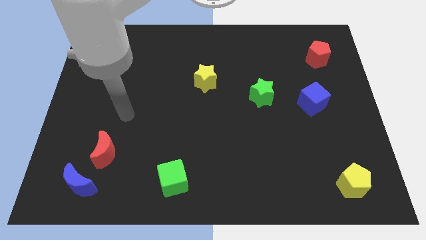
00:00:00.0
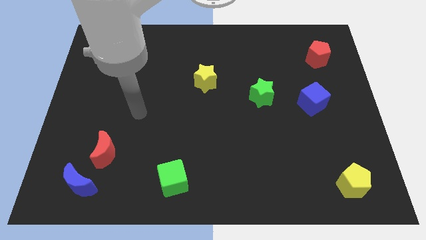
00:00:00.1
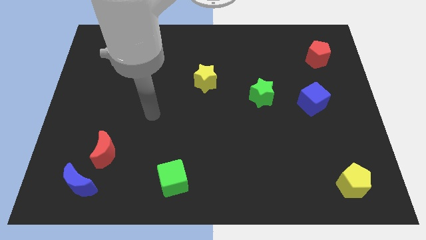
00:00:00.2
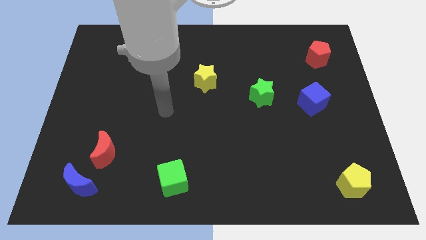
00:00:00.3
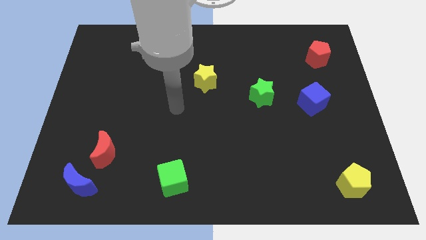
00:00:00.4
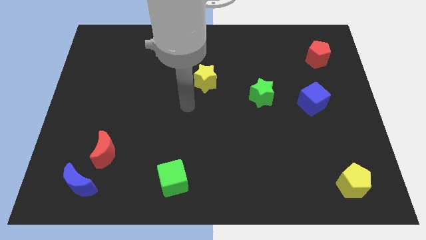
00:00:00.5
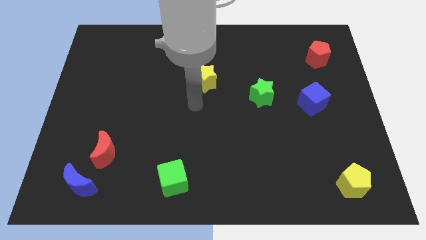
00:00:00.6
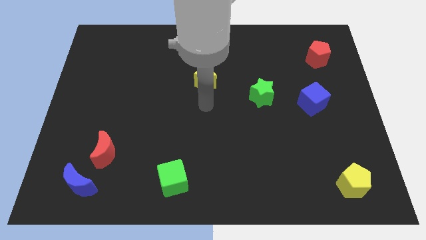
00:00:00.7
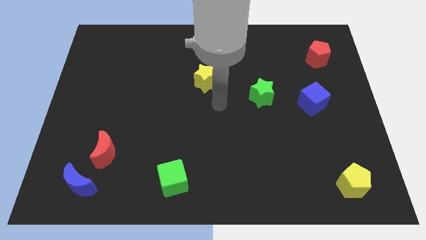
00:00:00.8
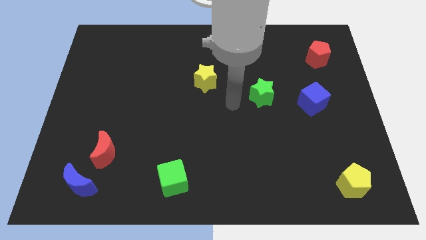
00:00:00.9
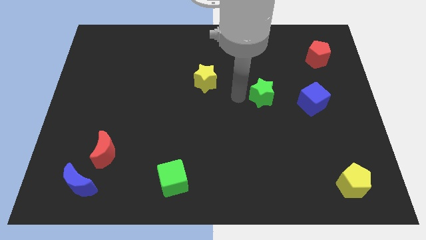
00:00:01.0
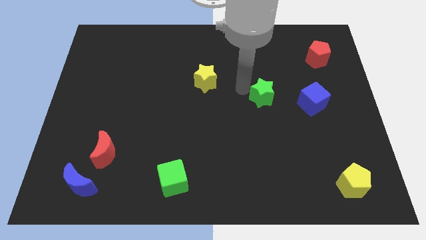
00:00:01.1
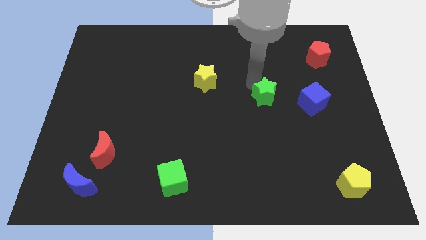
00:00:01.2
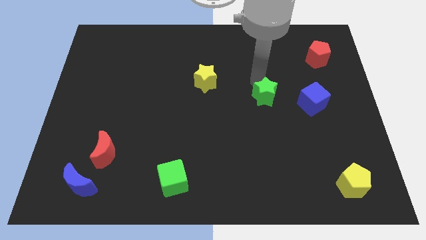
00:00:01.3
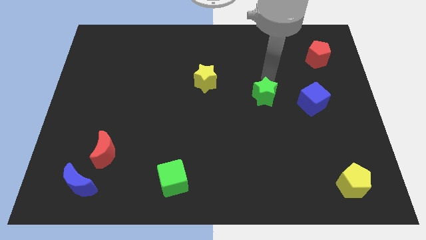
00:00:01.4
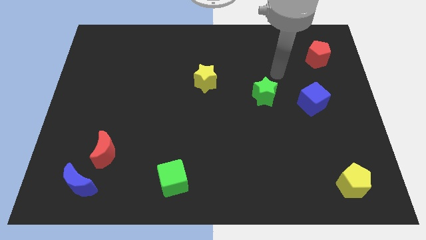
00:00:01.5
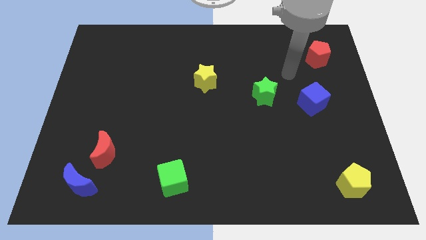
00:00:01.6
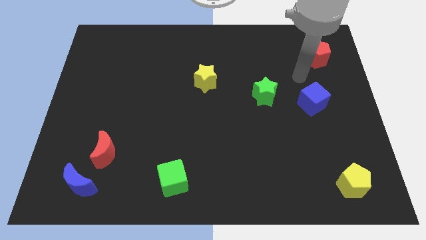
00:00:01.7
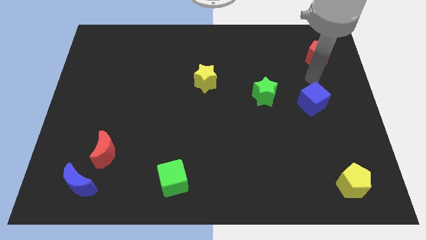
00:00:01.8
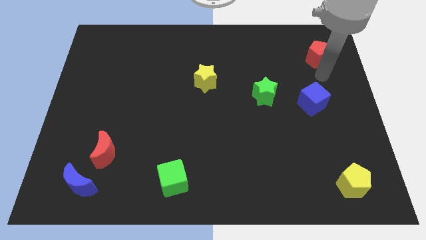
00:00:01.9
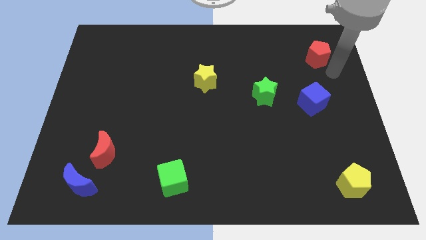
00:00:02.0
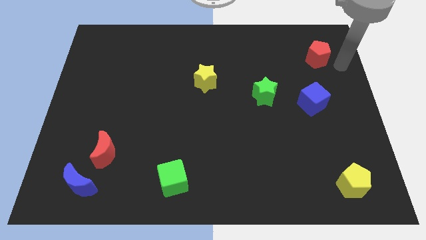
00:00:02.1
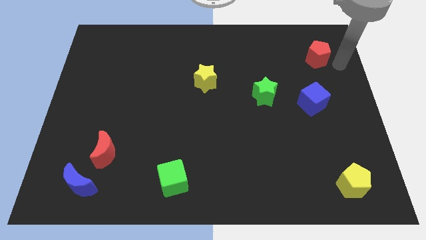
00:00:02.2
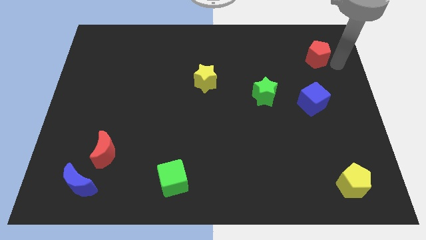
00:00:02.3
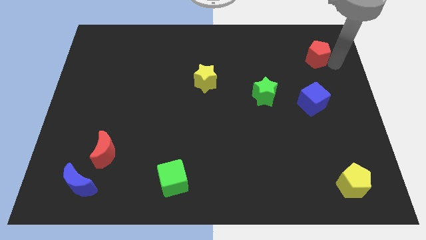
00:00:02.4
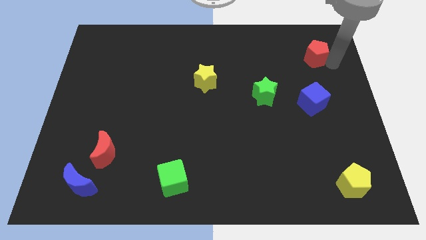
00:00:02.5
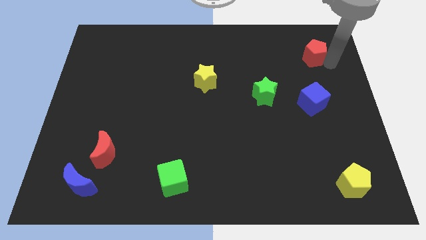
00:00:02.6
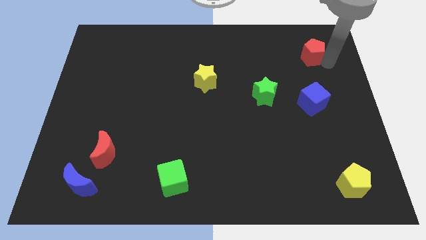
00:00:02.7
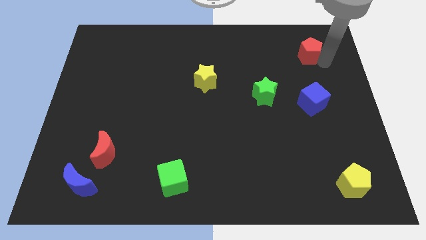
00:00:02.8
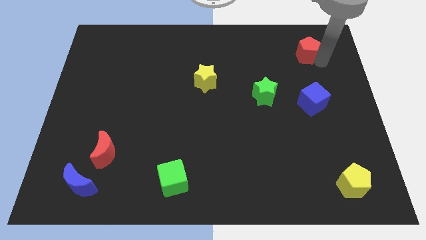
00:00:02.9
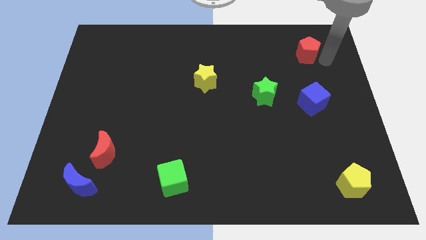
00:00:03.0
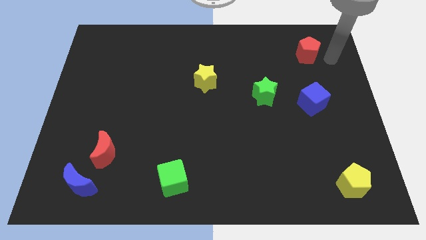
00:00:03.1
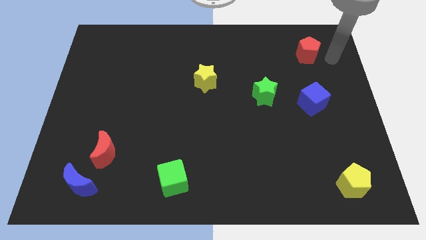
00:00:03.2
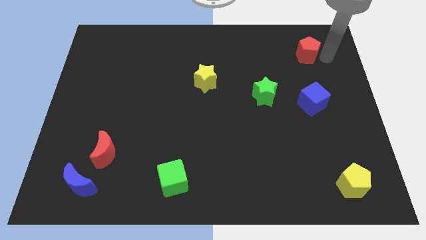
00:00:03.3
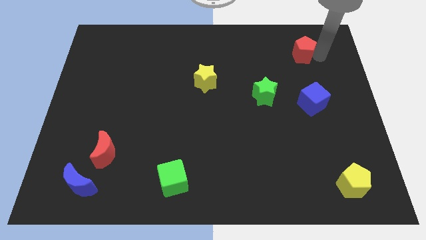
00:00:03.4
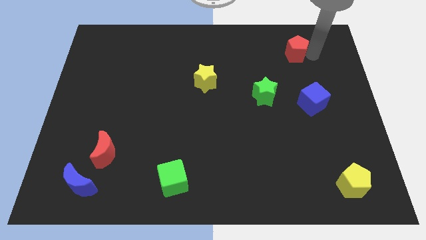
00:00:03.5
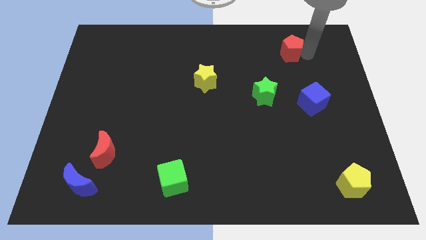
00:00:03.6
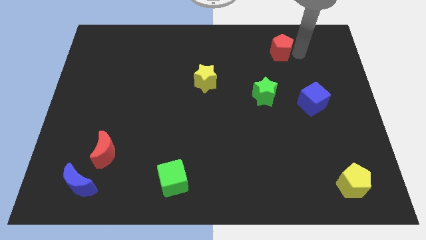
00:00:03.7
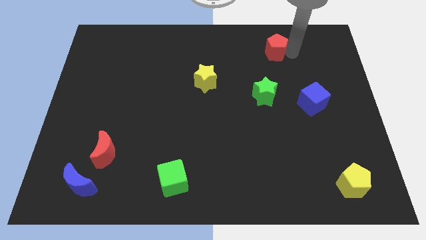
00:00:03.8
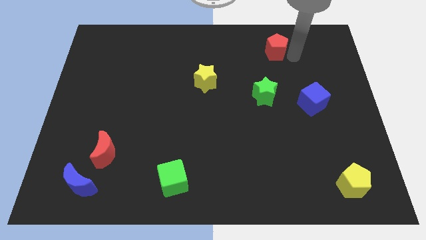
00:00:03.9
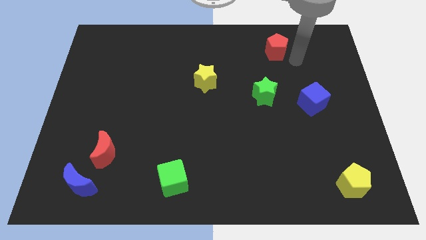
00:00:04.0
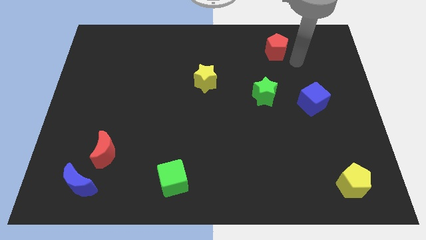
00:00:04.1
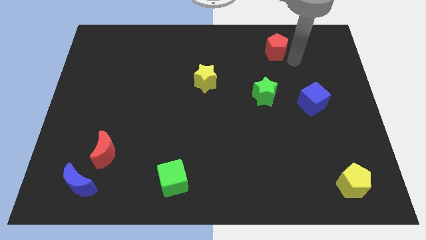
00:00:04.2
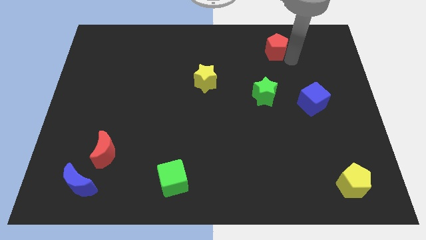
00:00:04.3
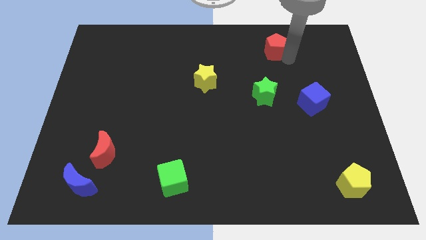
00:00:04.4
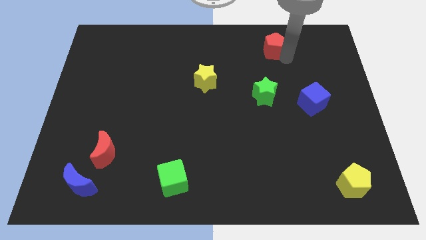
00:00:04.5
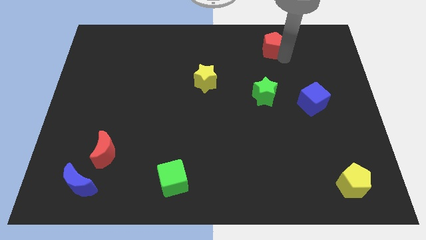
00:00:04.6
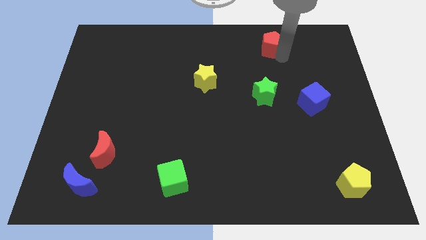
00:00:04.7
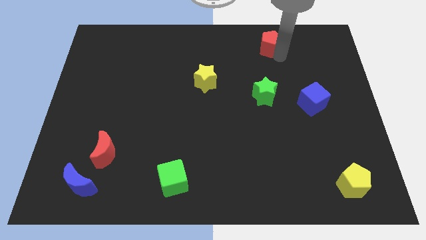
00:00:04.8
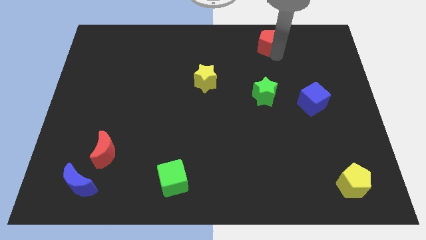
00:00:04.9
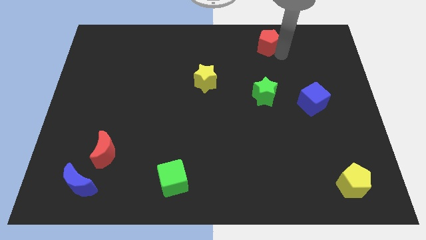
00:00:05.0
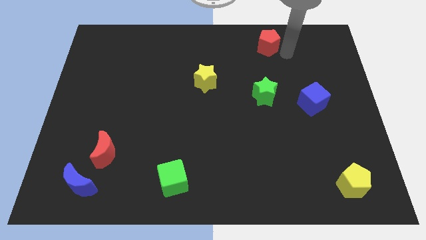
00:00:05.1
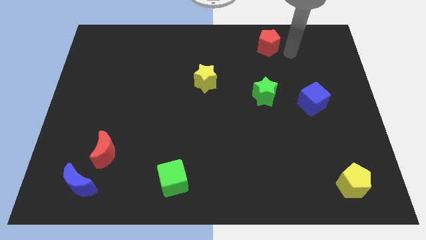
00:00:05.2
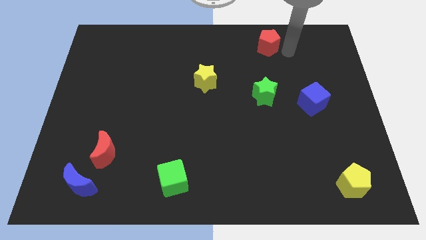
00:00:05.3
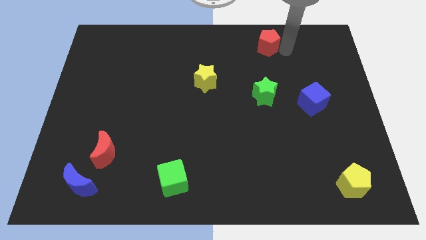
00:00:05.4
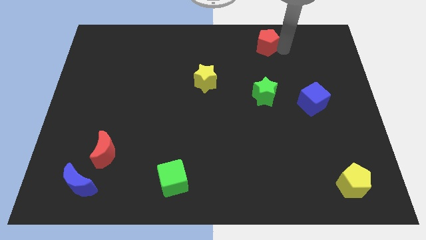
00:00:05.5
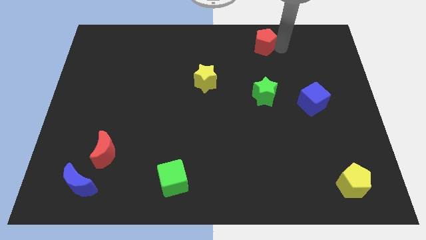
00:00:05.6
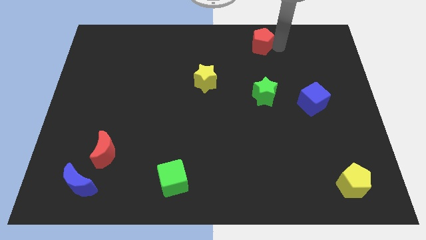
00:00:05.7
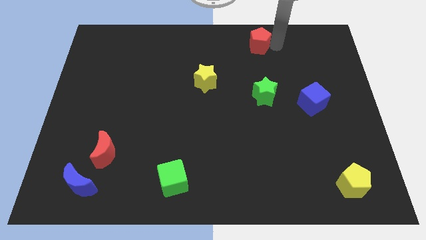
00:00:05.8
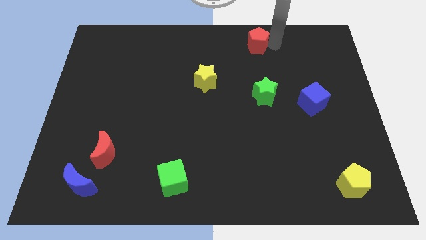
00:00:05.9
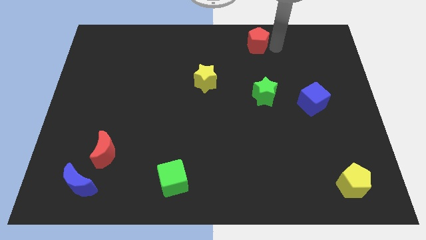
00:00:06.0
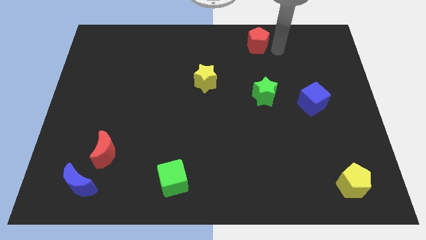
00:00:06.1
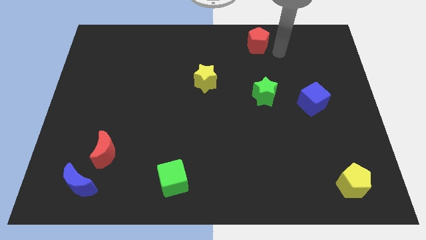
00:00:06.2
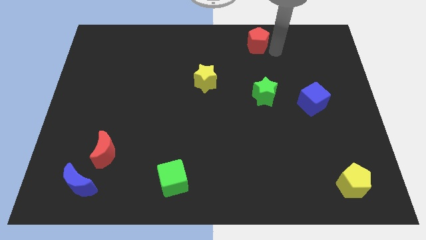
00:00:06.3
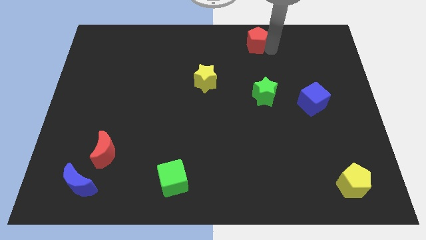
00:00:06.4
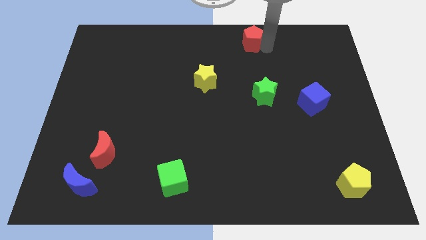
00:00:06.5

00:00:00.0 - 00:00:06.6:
slide the red pentagon to the top

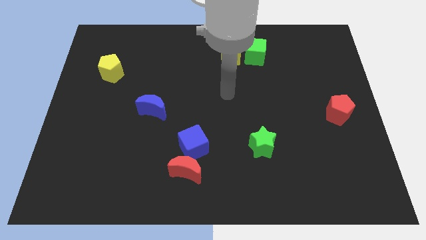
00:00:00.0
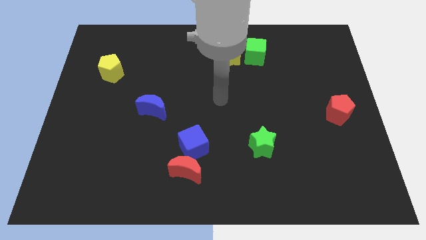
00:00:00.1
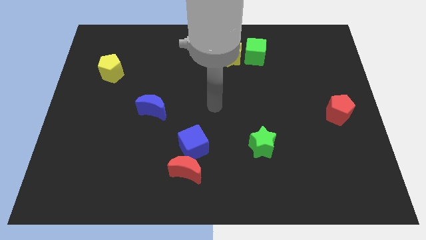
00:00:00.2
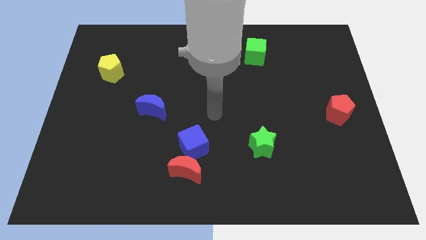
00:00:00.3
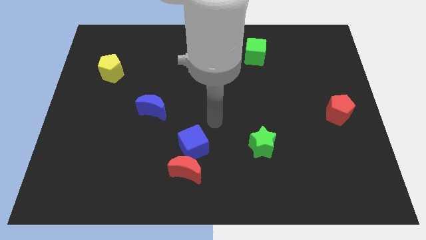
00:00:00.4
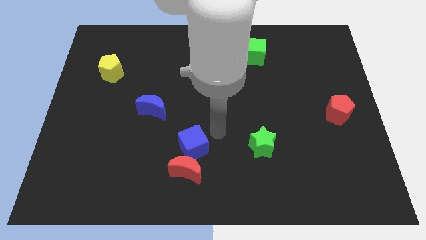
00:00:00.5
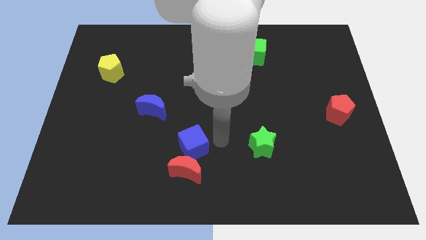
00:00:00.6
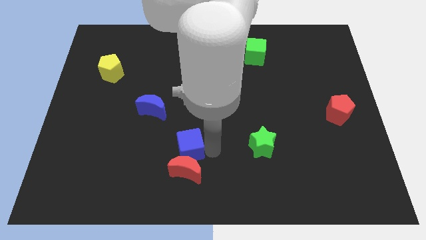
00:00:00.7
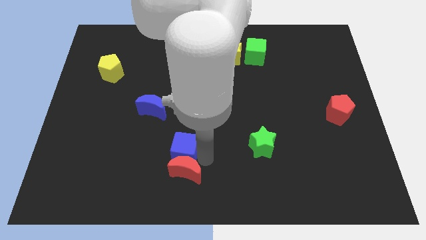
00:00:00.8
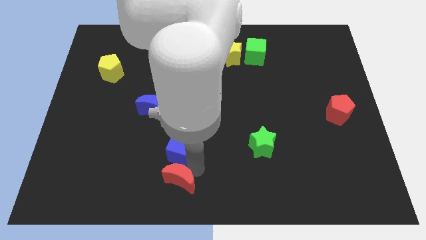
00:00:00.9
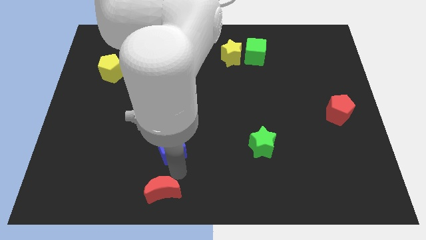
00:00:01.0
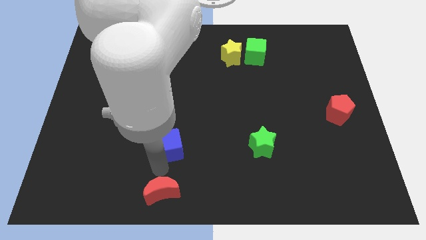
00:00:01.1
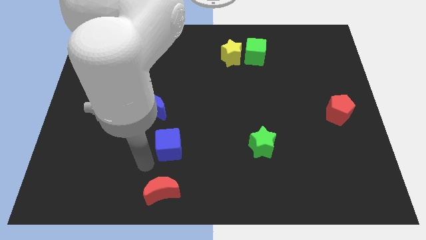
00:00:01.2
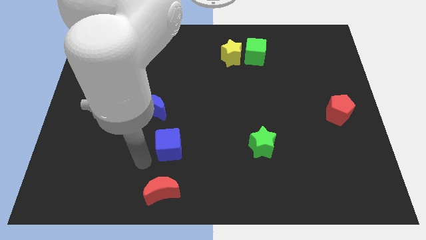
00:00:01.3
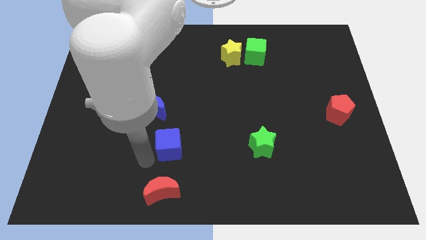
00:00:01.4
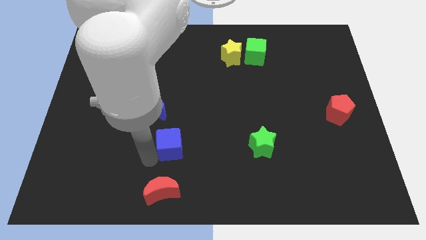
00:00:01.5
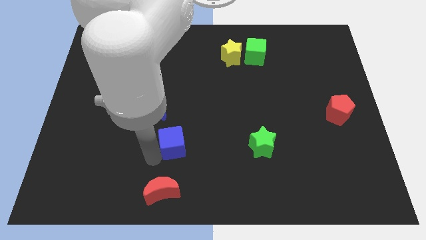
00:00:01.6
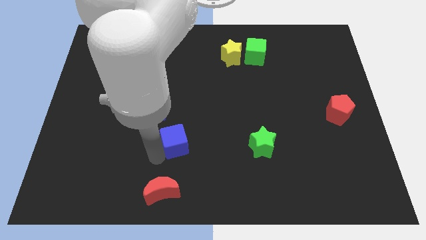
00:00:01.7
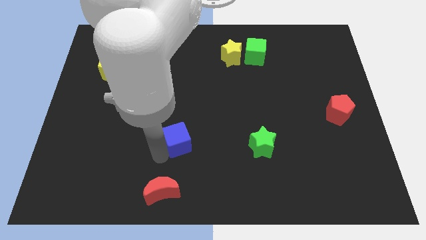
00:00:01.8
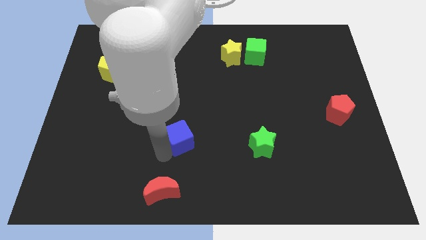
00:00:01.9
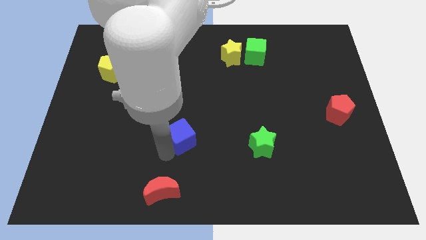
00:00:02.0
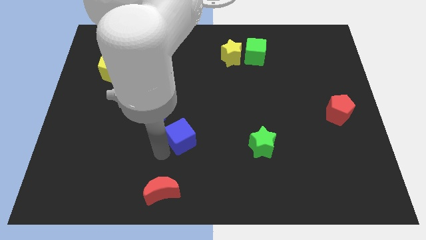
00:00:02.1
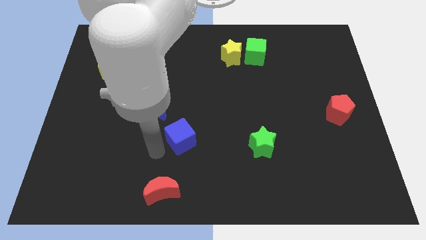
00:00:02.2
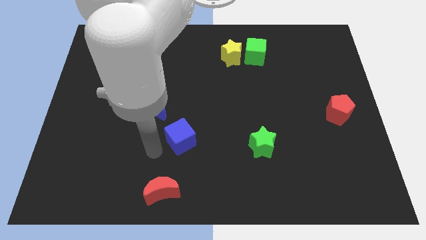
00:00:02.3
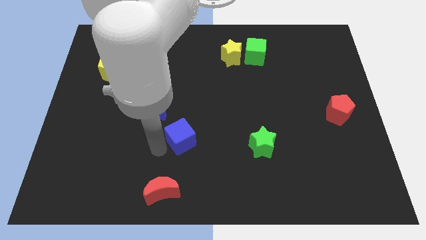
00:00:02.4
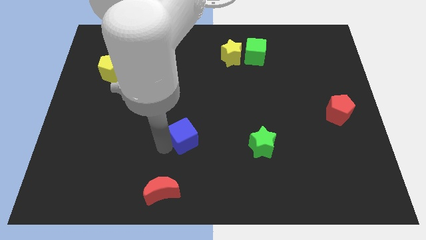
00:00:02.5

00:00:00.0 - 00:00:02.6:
slide the blue cube to the middle of the board
